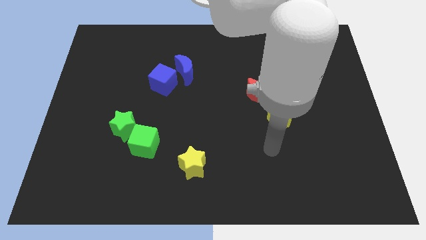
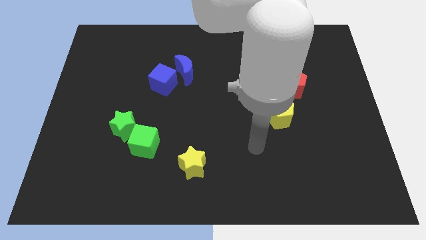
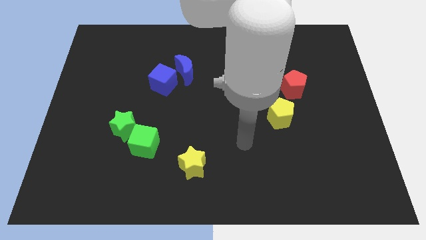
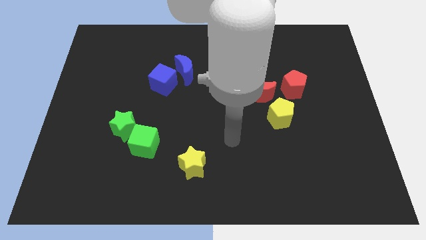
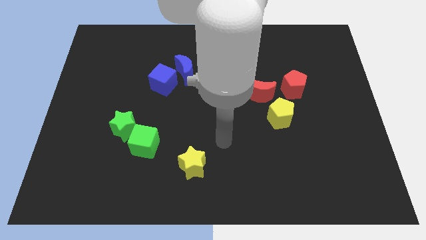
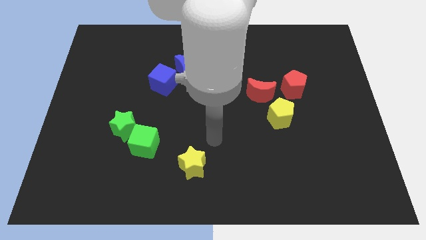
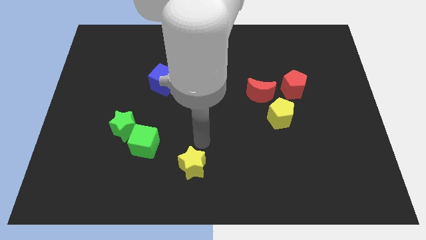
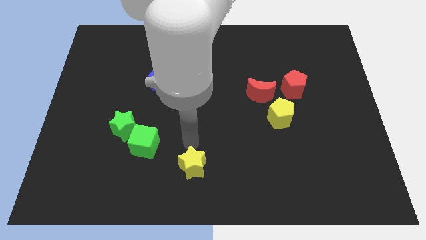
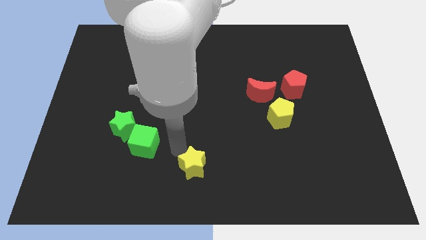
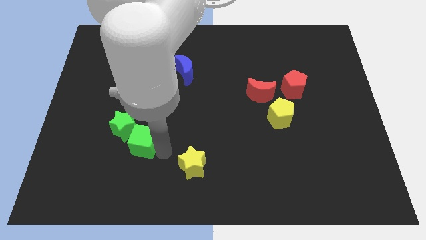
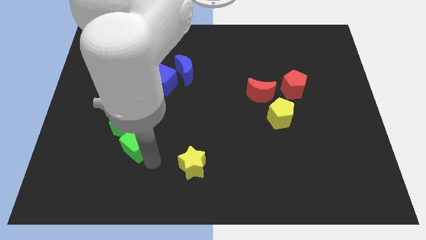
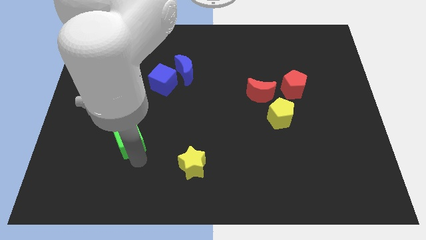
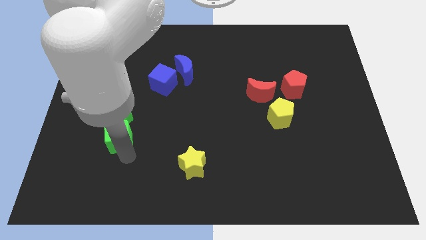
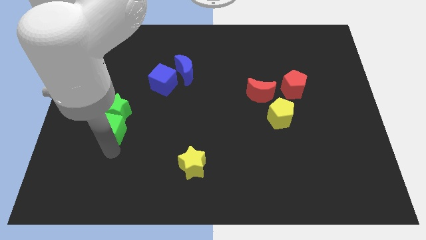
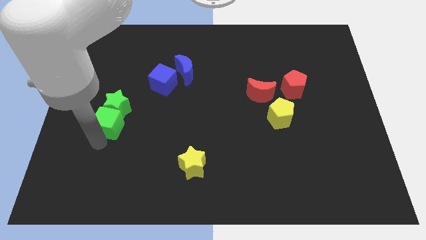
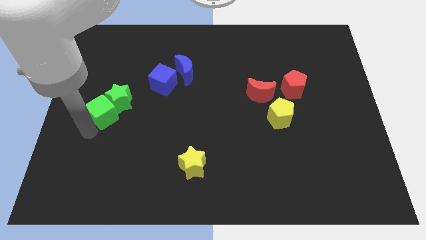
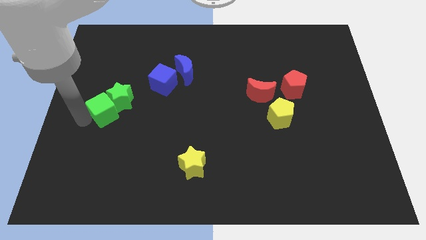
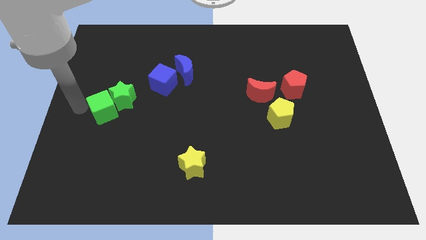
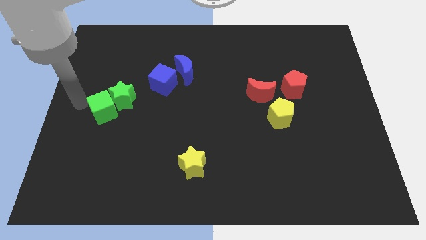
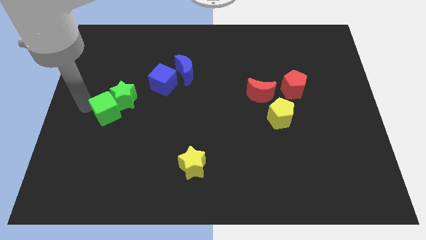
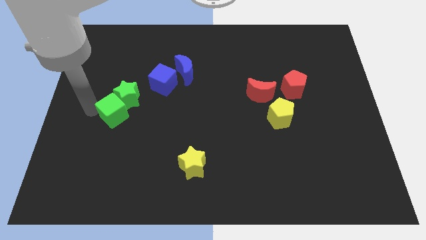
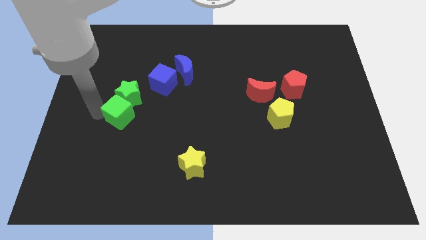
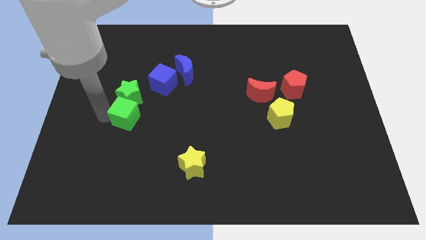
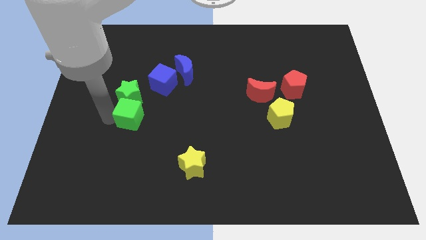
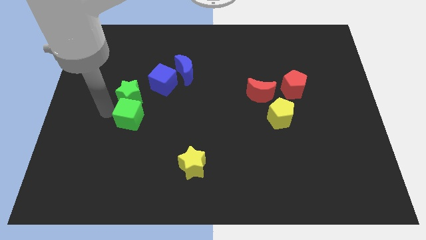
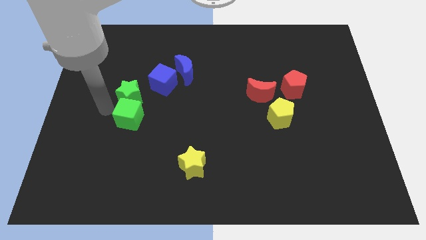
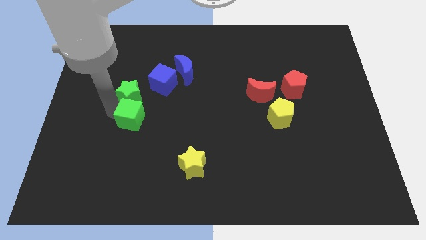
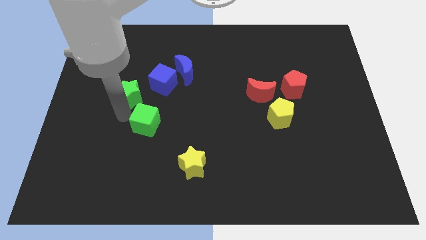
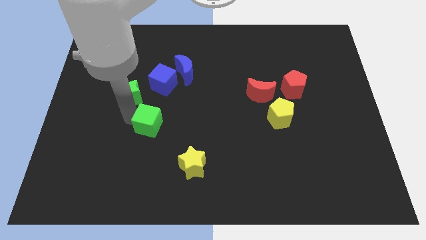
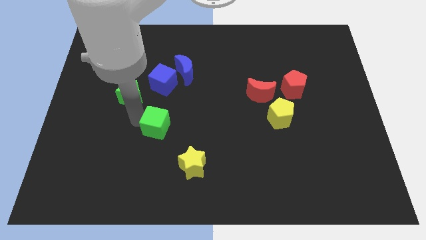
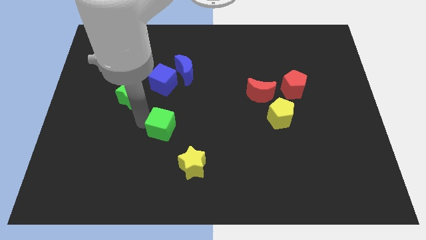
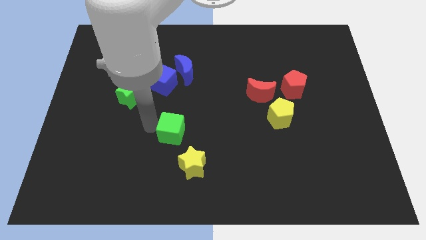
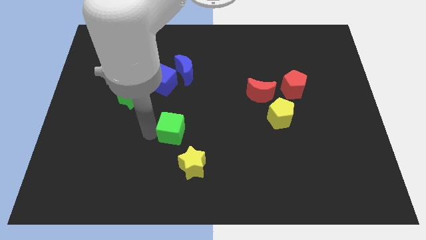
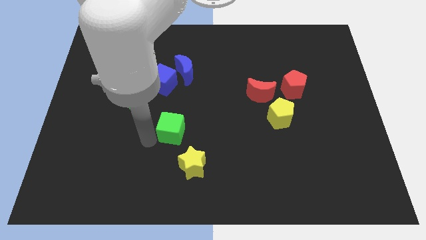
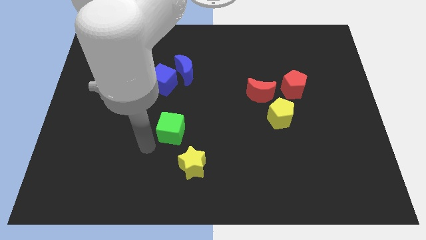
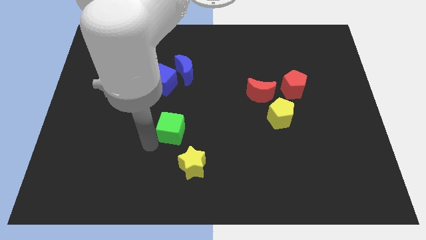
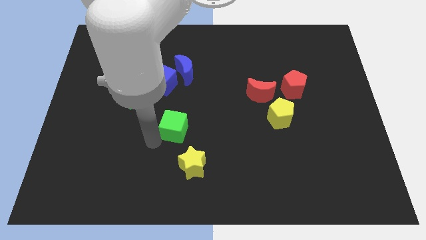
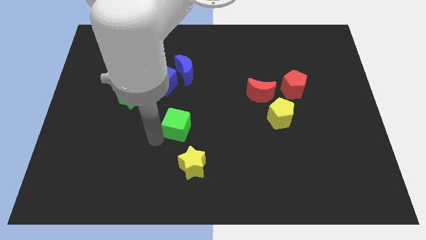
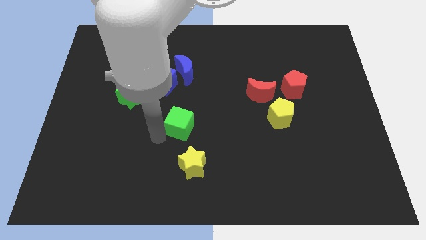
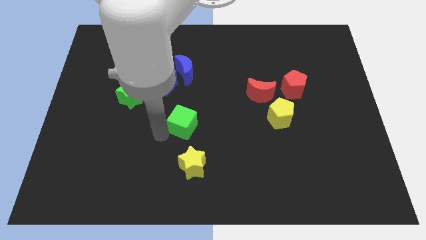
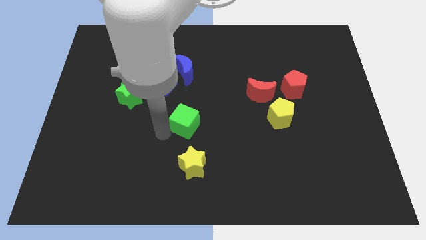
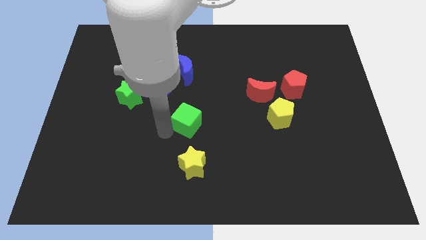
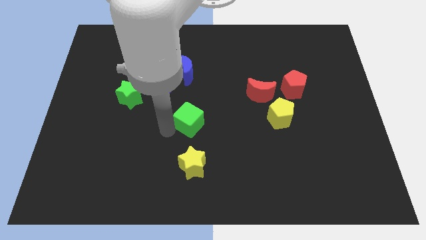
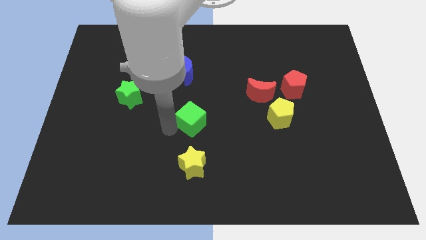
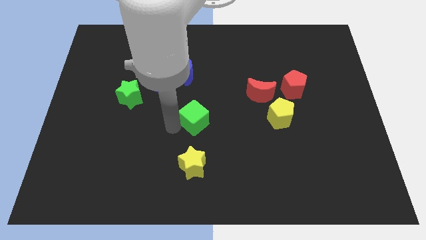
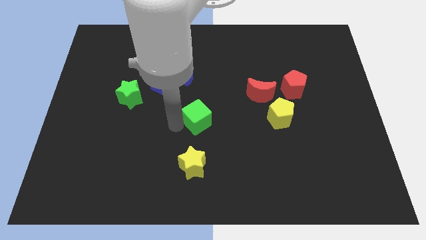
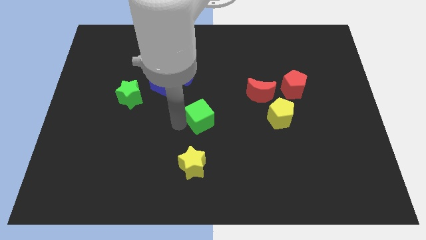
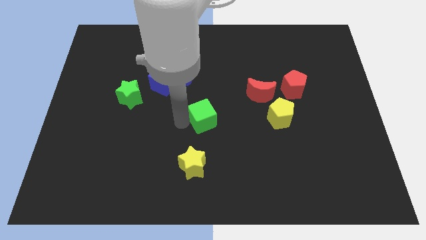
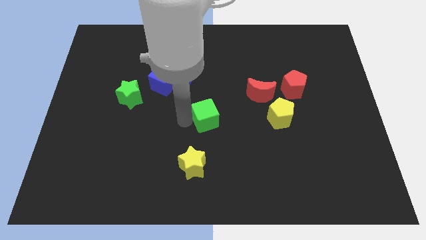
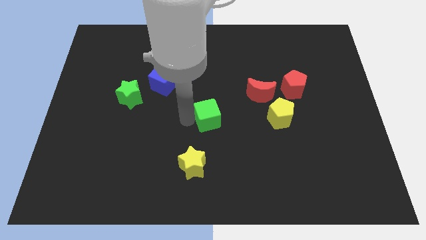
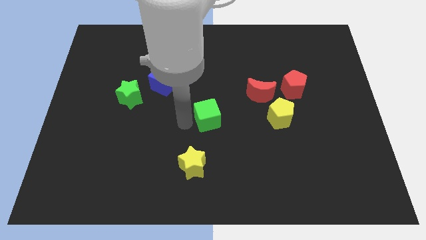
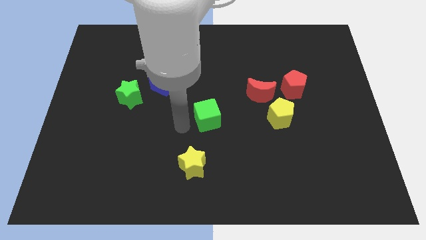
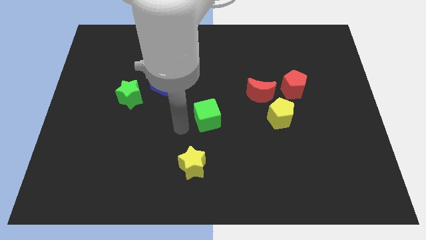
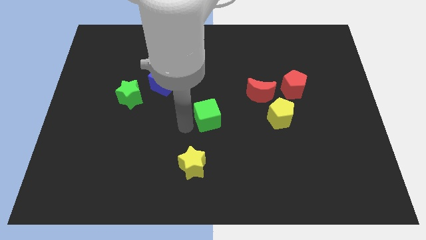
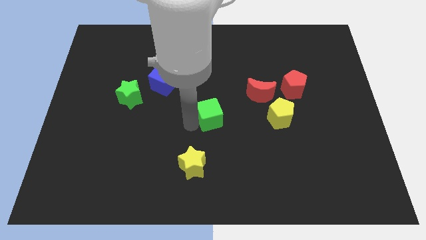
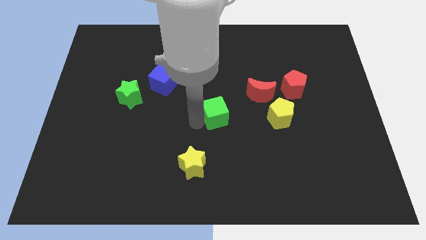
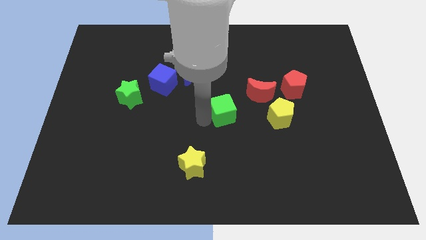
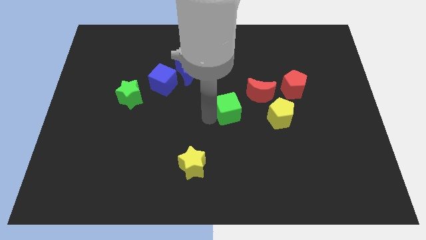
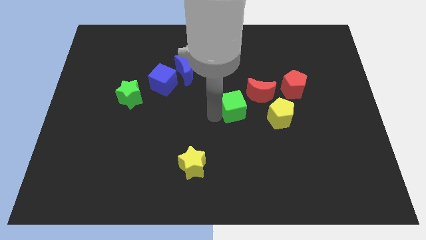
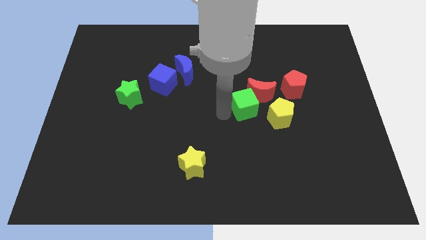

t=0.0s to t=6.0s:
slide the green cube to the red moon

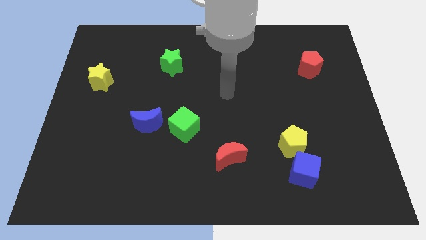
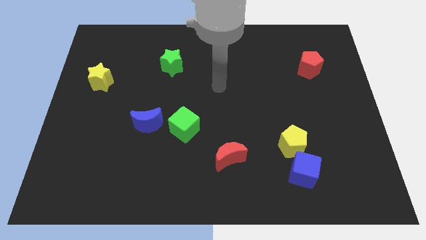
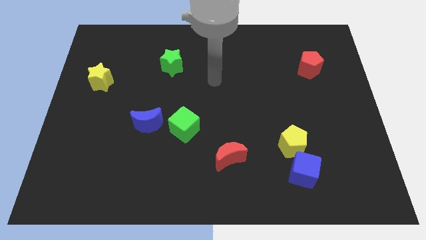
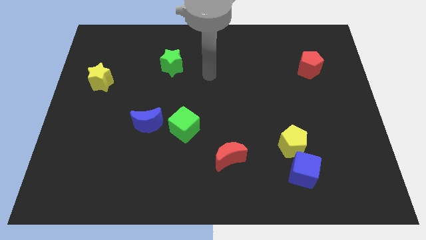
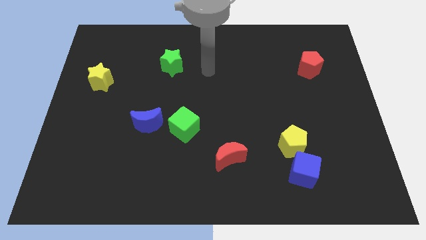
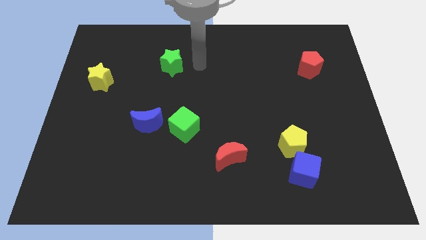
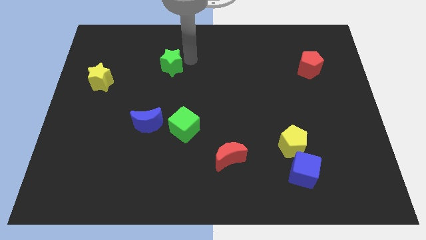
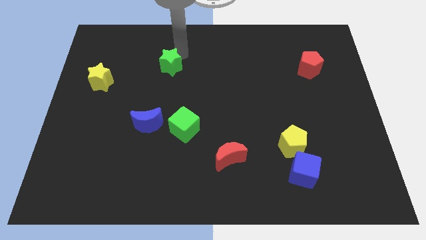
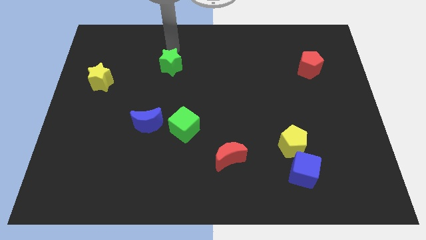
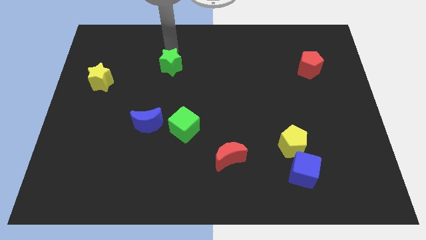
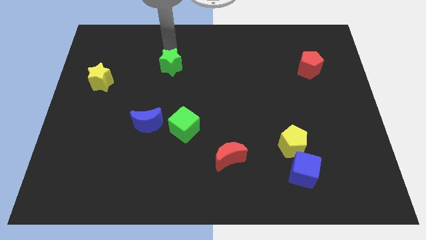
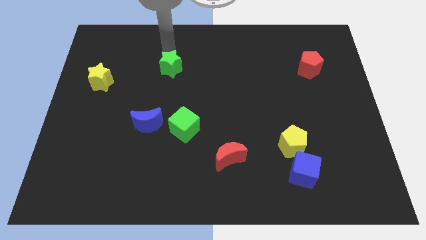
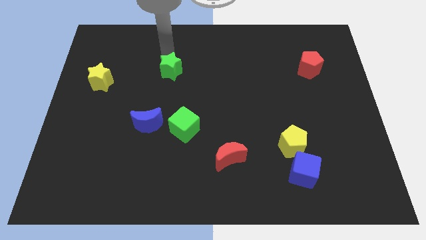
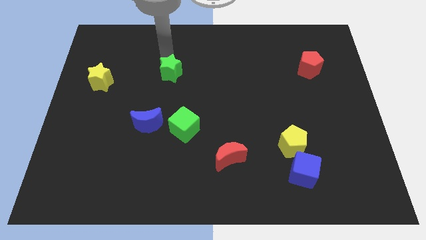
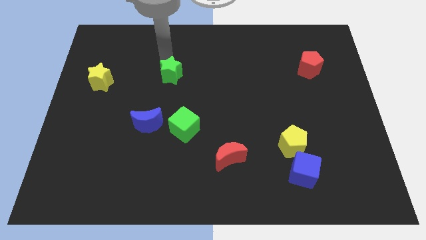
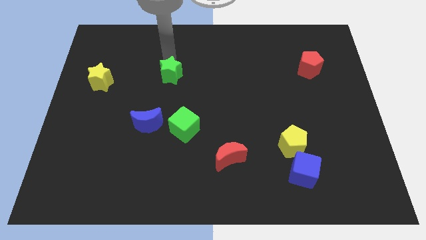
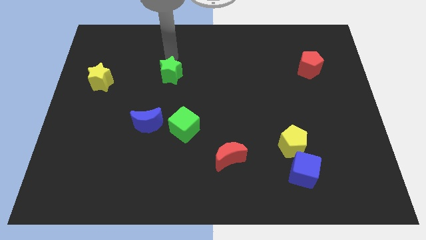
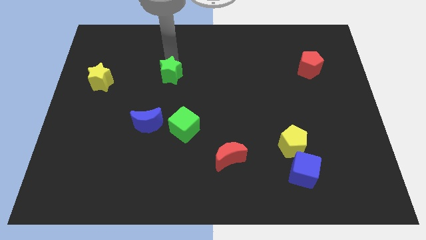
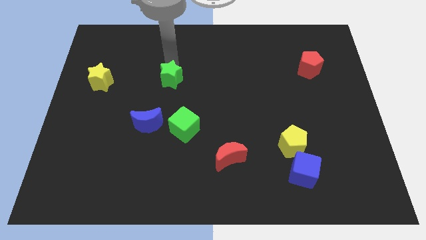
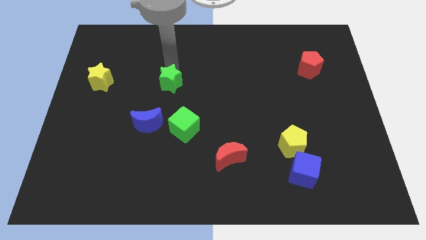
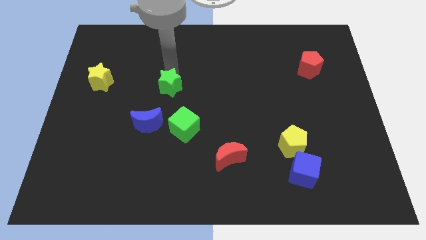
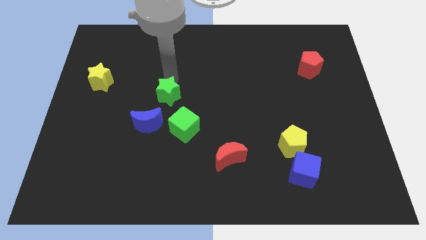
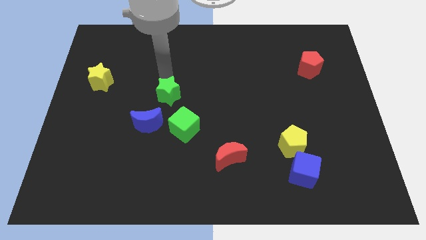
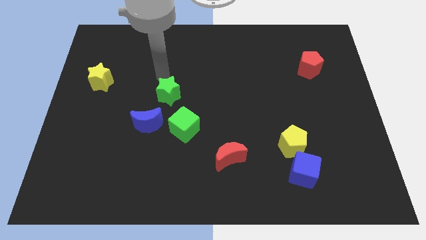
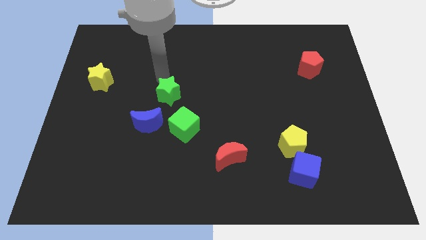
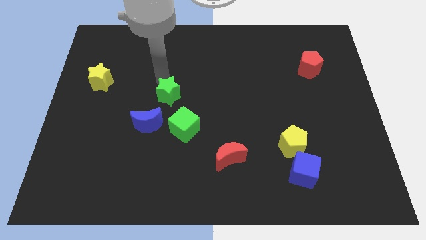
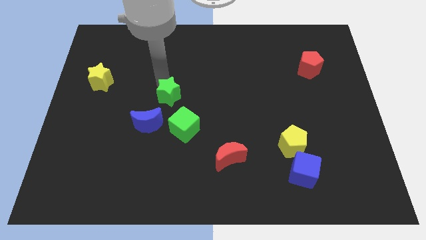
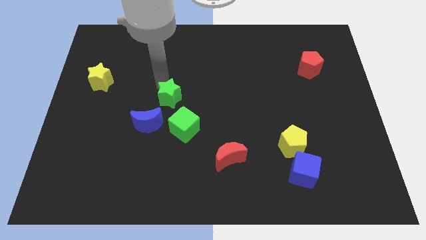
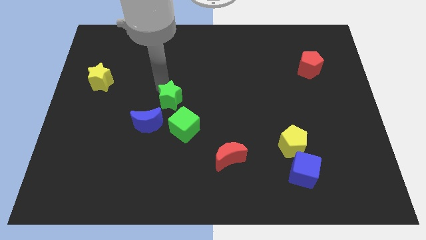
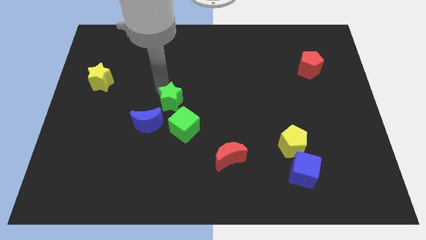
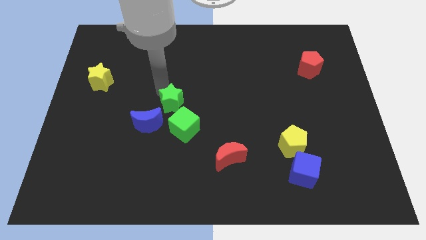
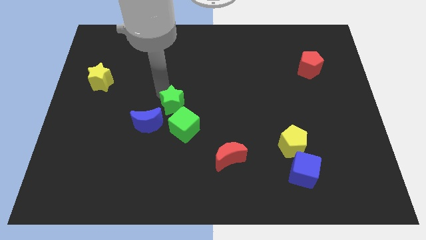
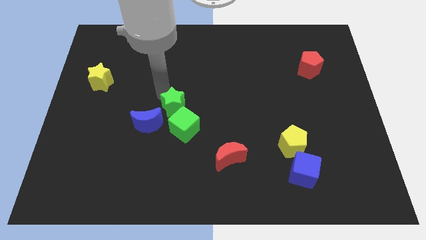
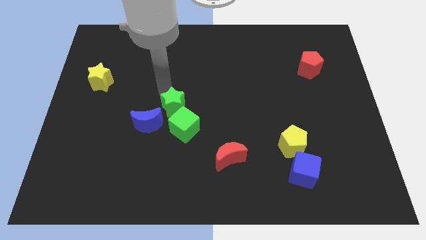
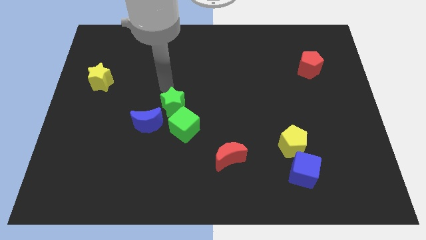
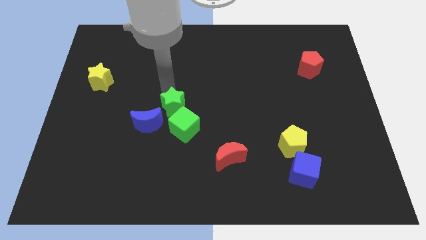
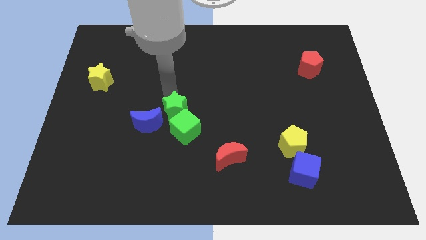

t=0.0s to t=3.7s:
slide the green star close to the green cube
